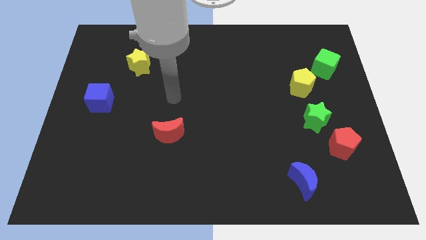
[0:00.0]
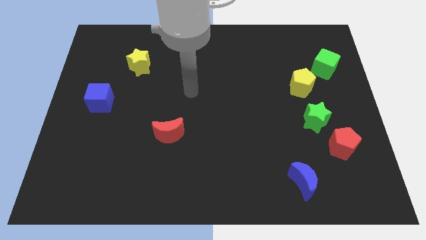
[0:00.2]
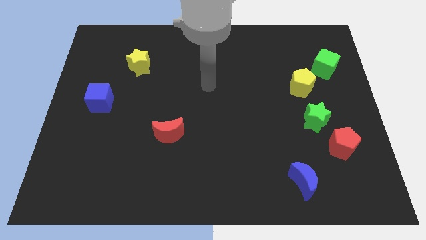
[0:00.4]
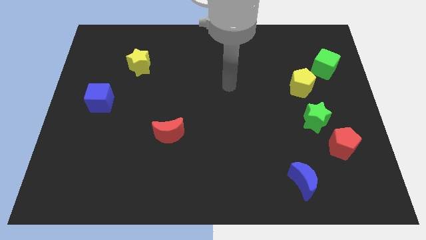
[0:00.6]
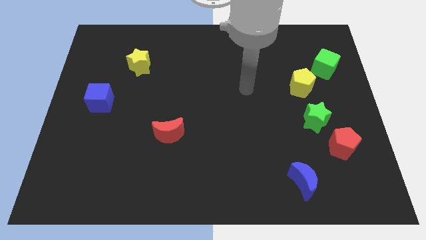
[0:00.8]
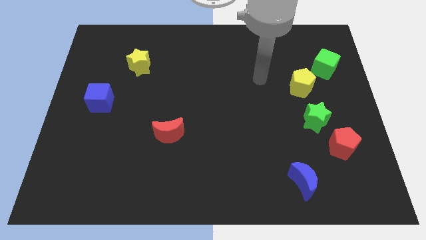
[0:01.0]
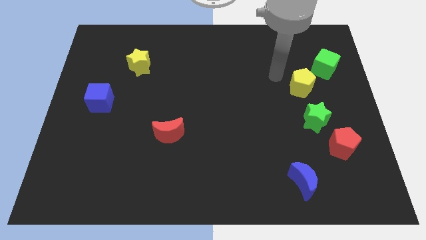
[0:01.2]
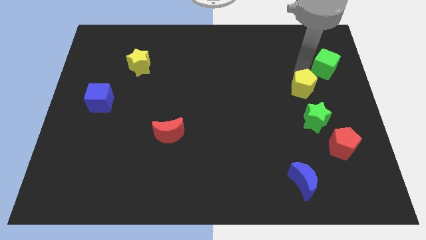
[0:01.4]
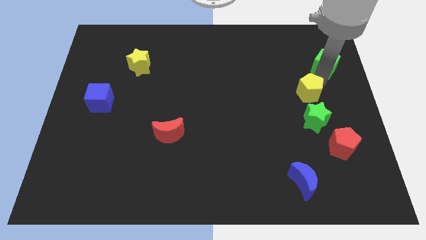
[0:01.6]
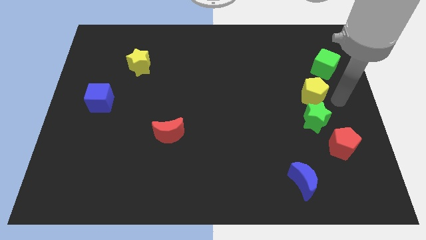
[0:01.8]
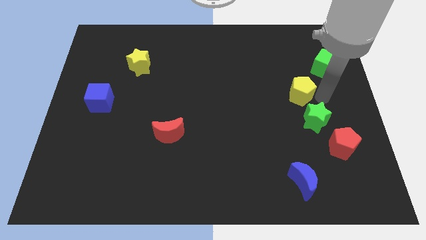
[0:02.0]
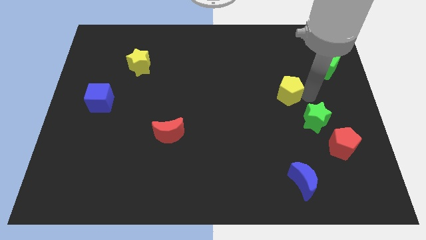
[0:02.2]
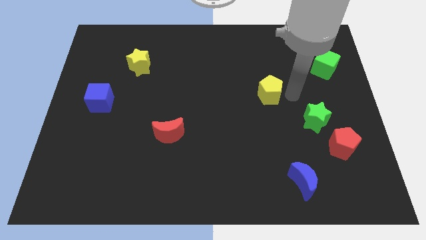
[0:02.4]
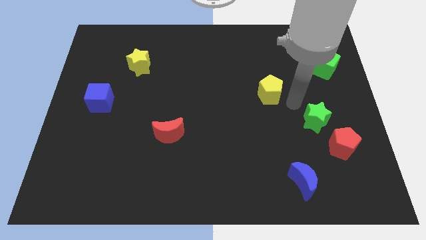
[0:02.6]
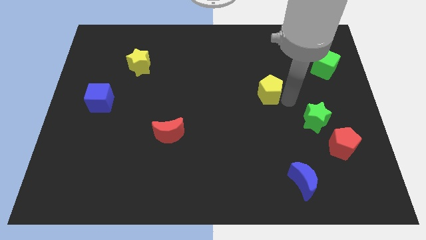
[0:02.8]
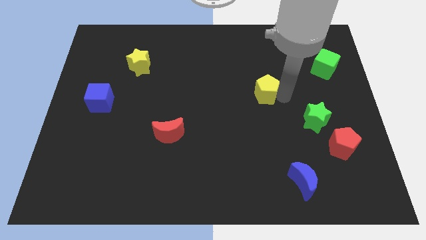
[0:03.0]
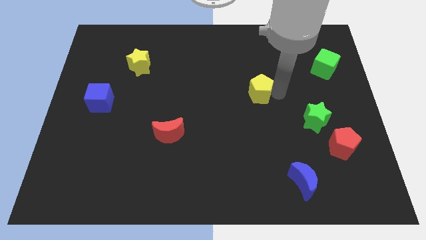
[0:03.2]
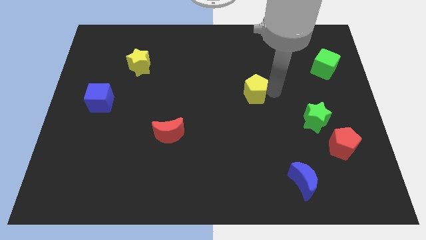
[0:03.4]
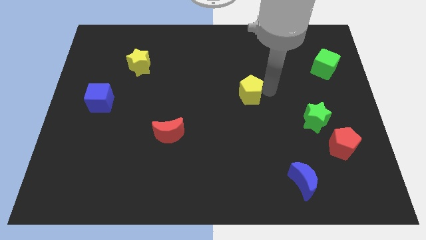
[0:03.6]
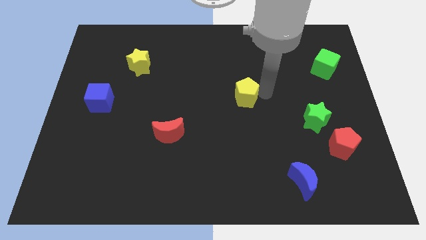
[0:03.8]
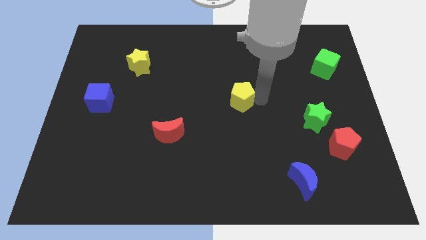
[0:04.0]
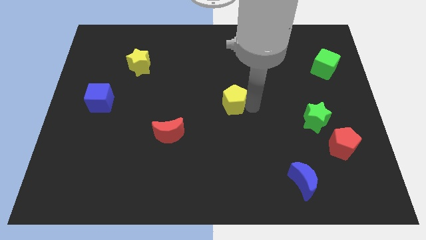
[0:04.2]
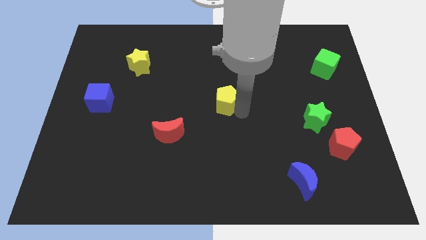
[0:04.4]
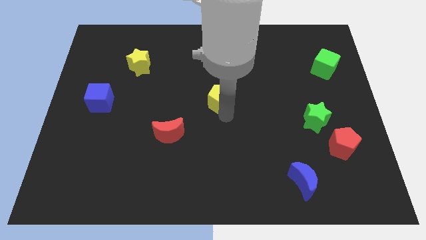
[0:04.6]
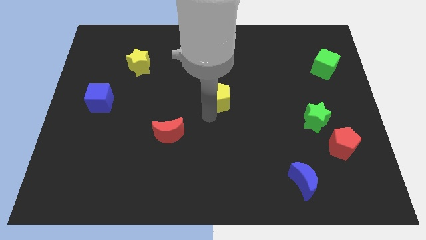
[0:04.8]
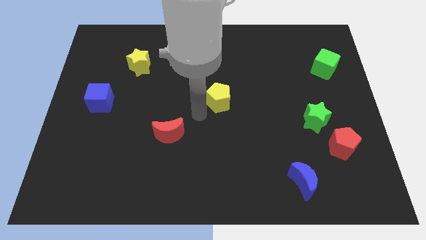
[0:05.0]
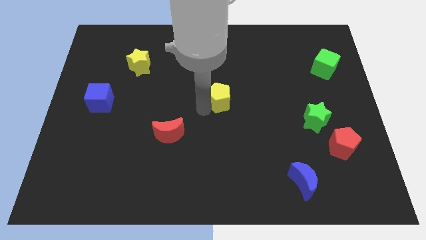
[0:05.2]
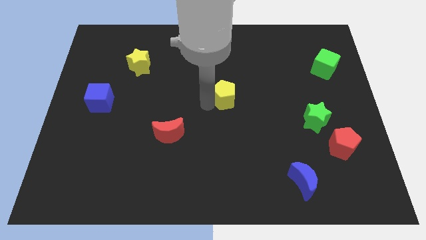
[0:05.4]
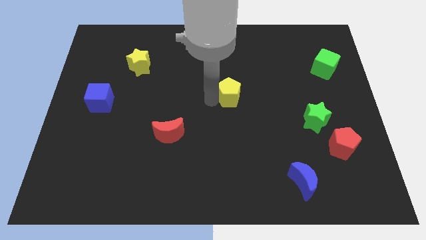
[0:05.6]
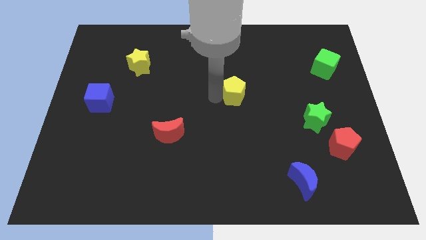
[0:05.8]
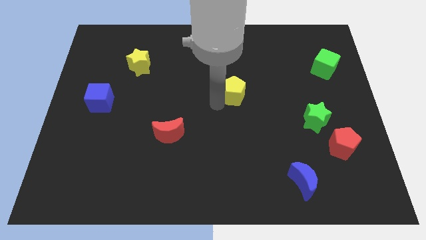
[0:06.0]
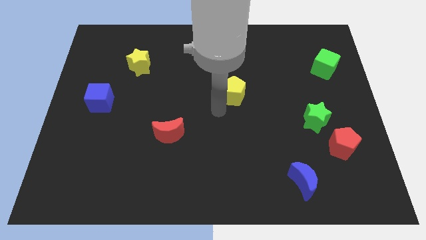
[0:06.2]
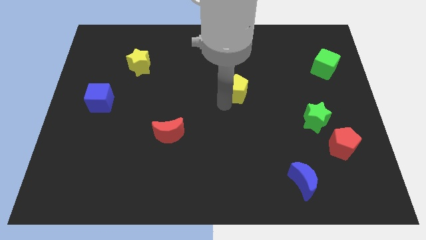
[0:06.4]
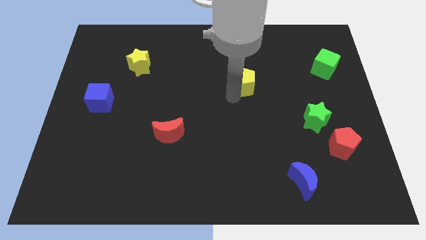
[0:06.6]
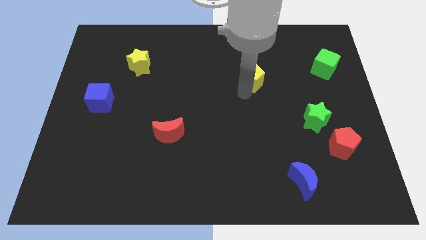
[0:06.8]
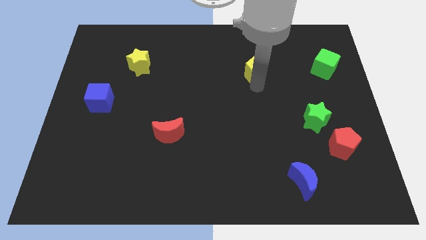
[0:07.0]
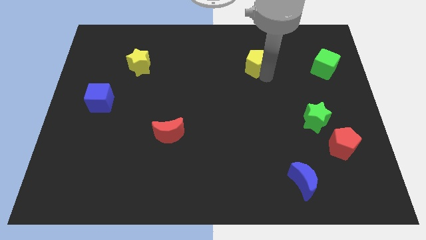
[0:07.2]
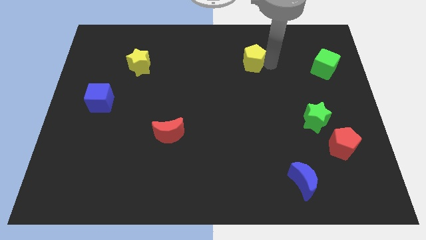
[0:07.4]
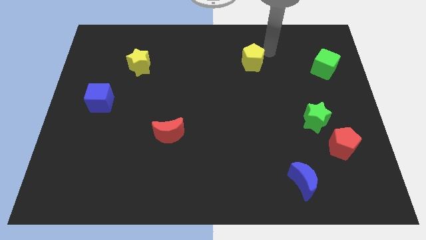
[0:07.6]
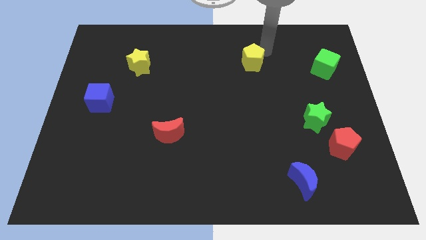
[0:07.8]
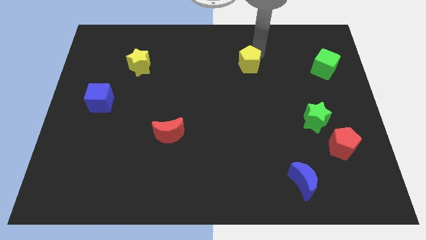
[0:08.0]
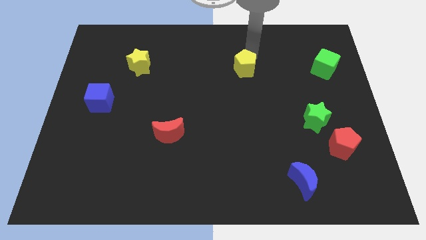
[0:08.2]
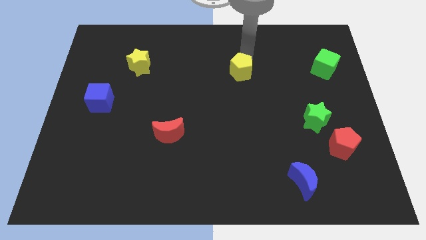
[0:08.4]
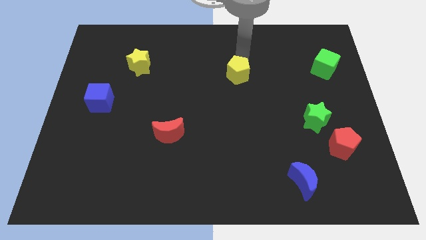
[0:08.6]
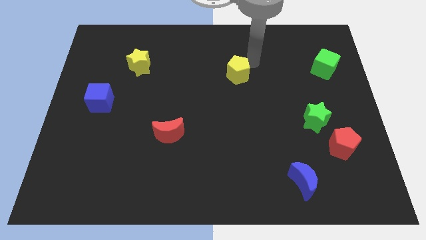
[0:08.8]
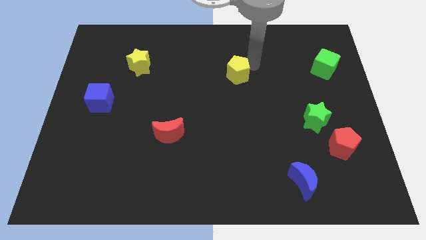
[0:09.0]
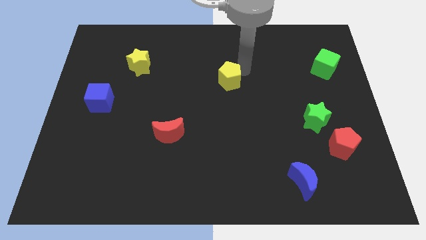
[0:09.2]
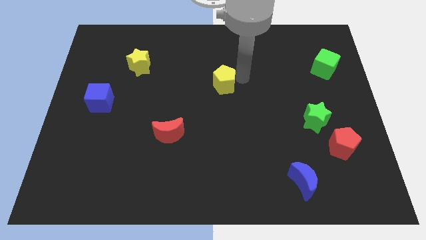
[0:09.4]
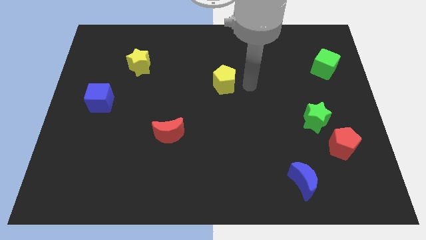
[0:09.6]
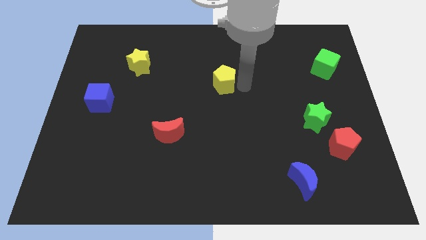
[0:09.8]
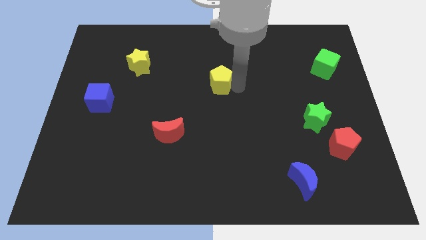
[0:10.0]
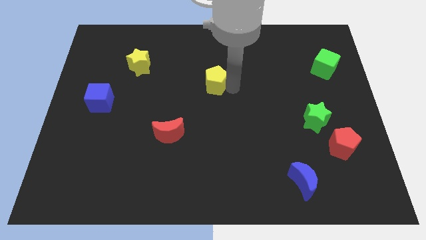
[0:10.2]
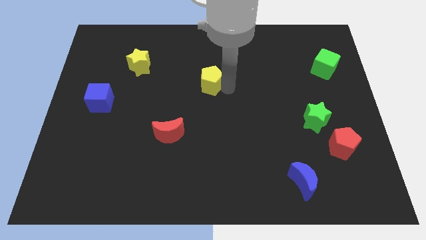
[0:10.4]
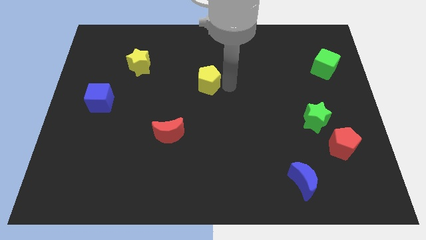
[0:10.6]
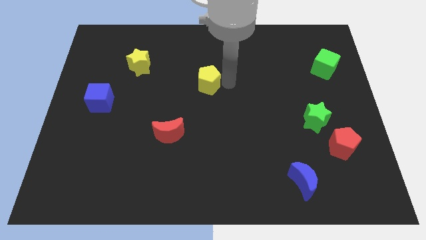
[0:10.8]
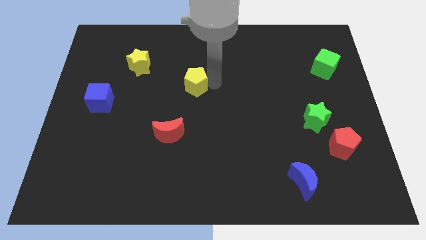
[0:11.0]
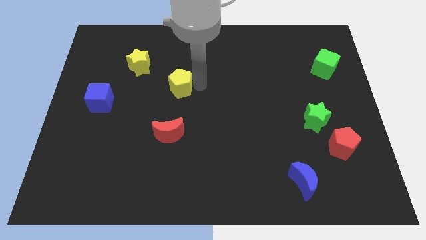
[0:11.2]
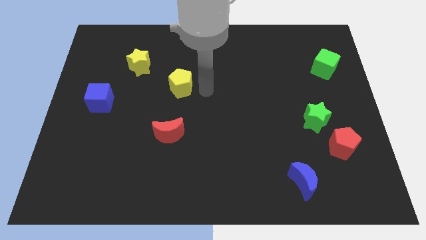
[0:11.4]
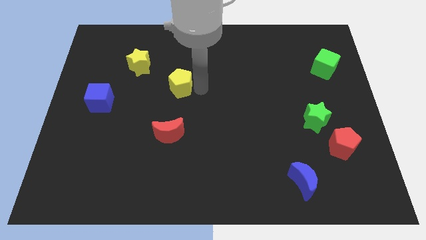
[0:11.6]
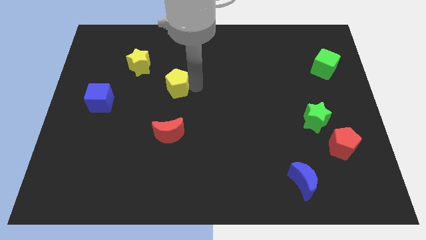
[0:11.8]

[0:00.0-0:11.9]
move the yellow pentagon to the bottom right of the yellow star

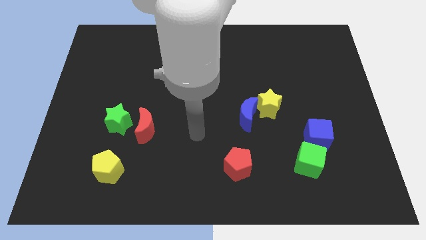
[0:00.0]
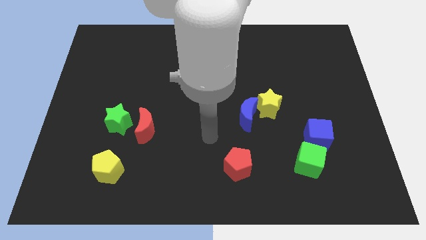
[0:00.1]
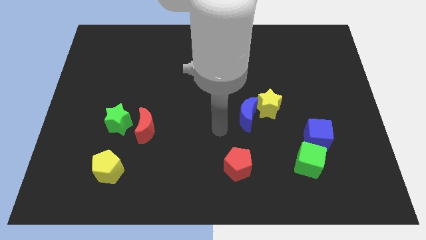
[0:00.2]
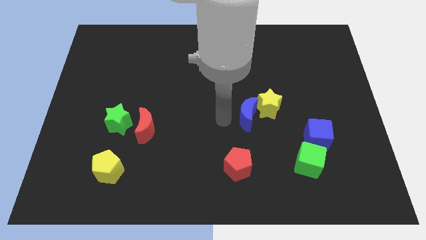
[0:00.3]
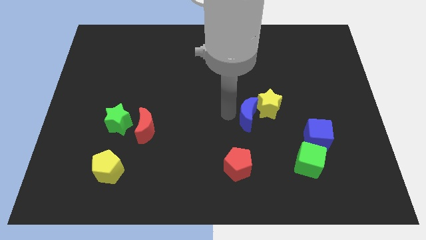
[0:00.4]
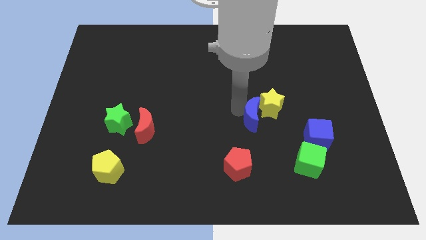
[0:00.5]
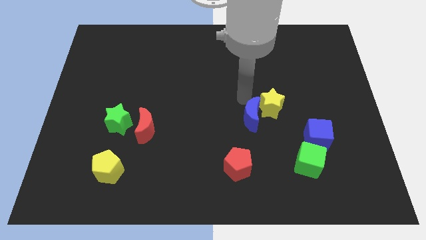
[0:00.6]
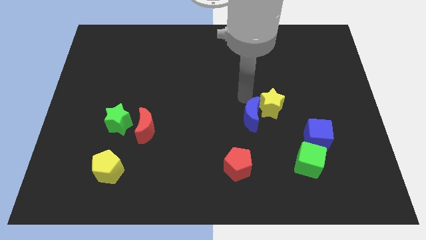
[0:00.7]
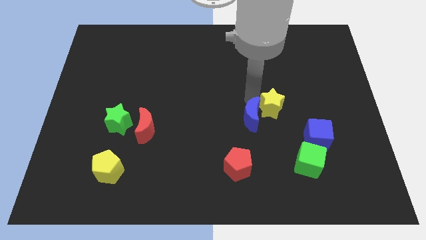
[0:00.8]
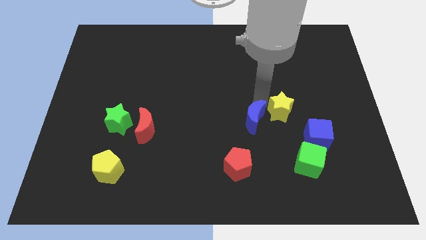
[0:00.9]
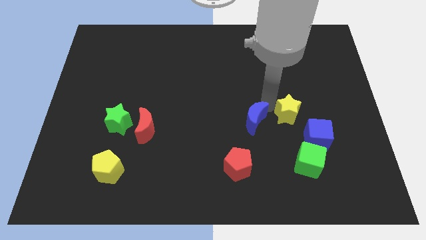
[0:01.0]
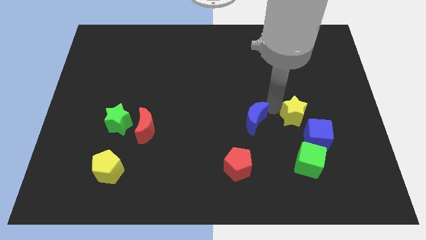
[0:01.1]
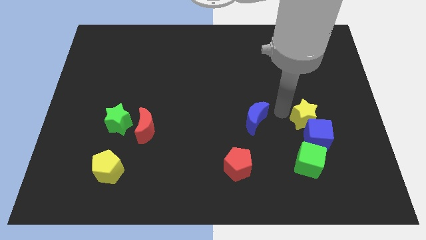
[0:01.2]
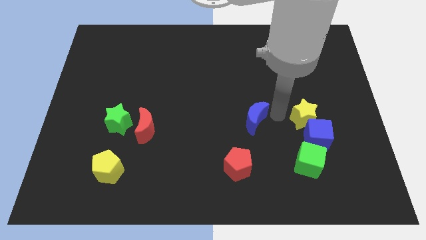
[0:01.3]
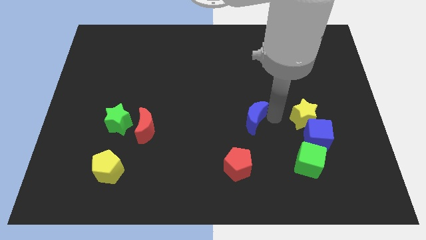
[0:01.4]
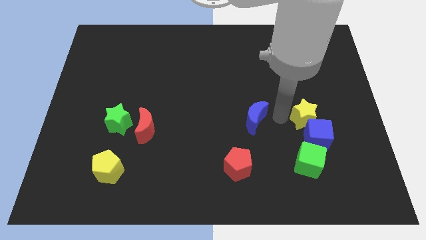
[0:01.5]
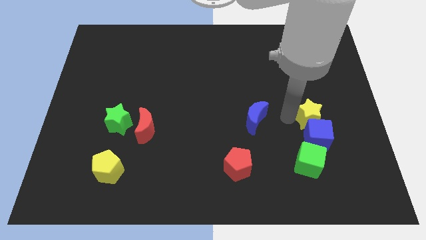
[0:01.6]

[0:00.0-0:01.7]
push the yellow star to the top right side of the blue cube
